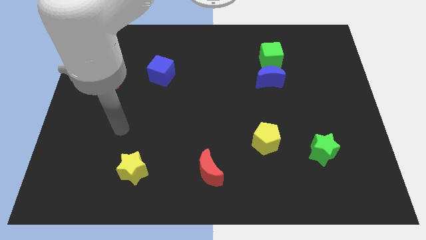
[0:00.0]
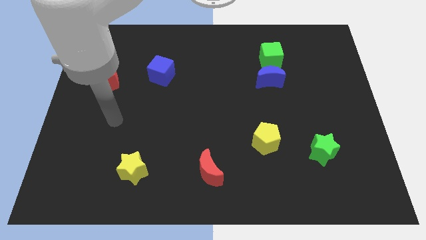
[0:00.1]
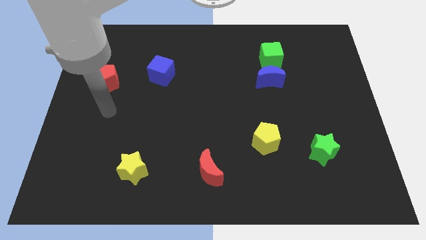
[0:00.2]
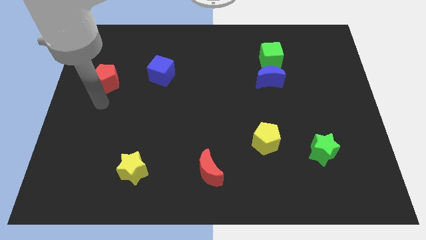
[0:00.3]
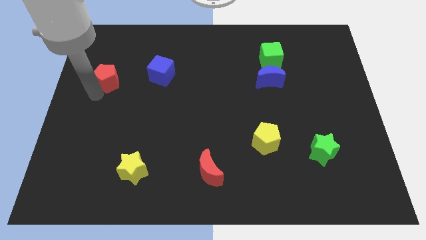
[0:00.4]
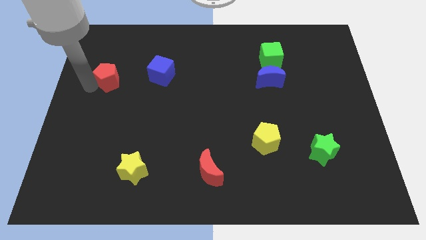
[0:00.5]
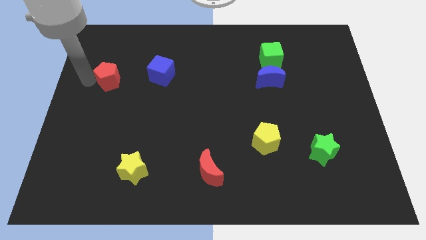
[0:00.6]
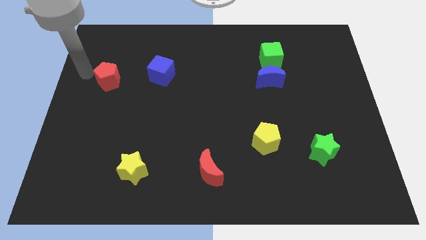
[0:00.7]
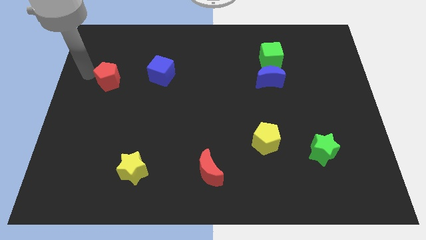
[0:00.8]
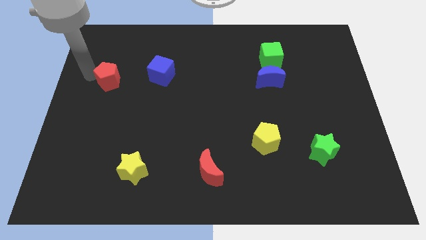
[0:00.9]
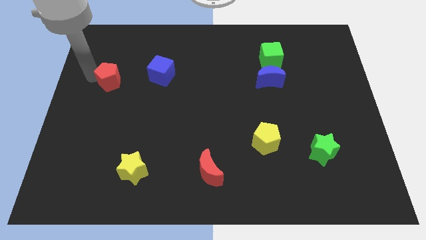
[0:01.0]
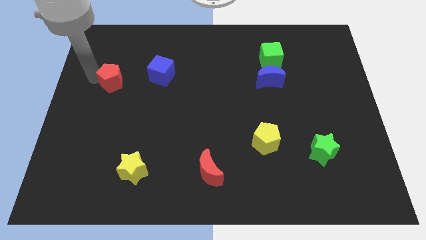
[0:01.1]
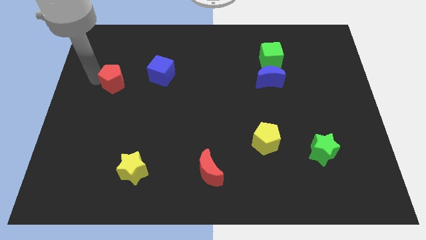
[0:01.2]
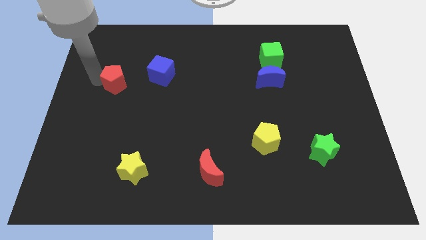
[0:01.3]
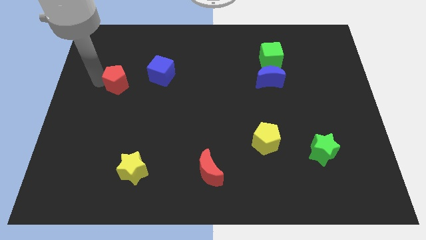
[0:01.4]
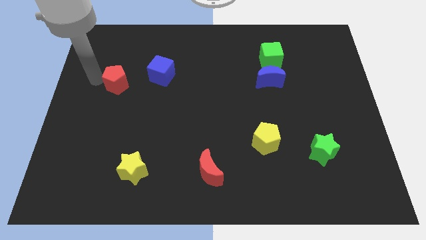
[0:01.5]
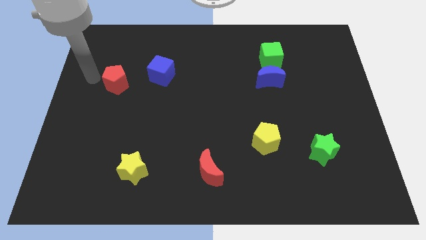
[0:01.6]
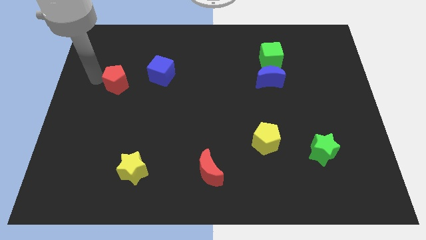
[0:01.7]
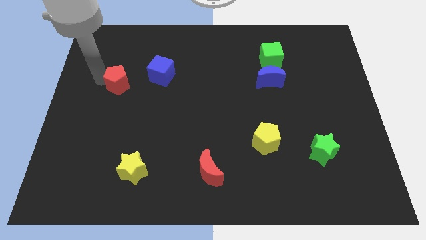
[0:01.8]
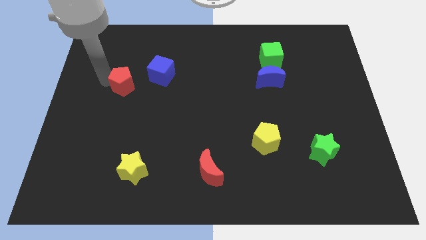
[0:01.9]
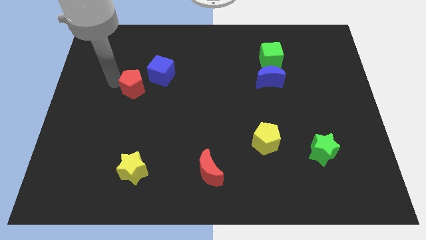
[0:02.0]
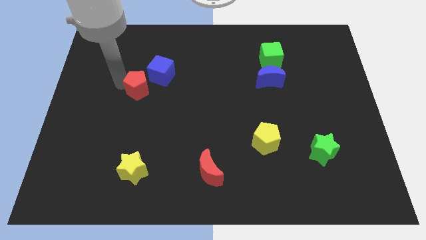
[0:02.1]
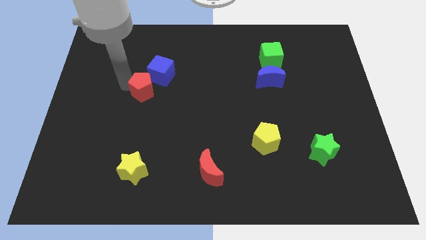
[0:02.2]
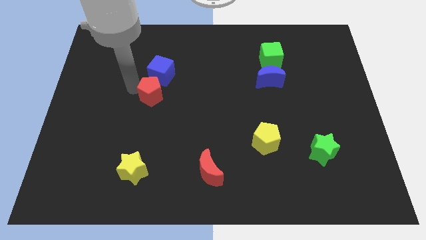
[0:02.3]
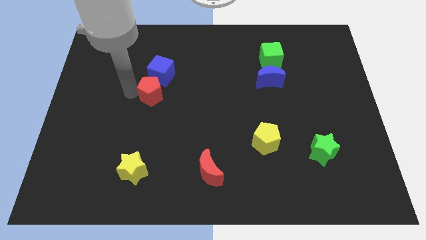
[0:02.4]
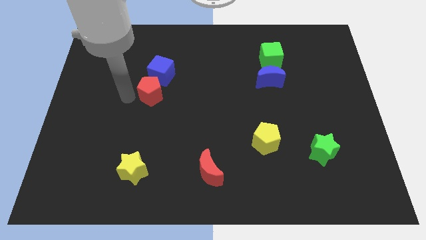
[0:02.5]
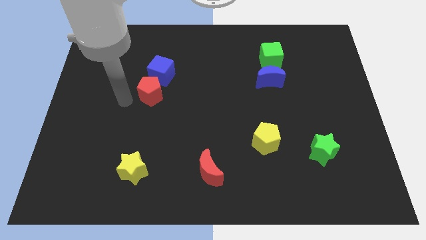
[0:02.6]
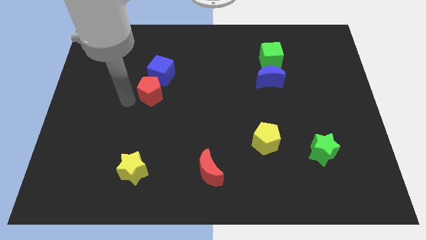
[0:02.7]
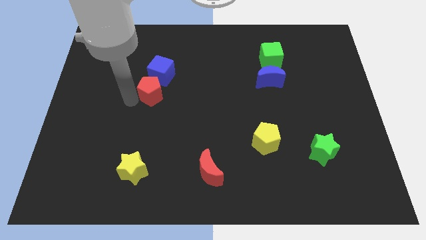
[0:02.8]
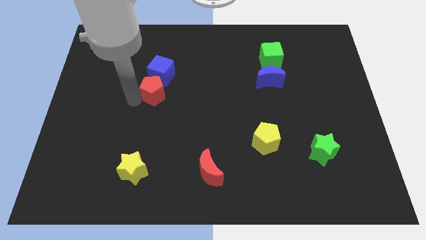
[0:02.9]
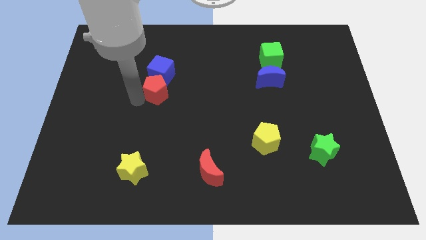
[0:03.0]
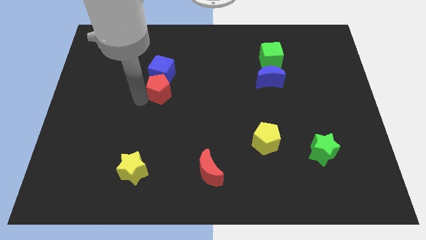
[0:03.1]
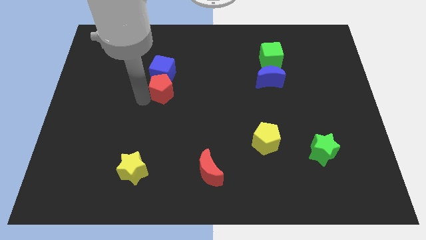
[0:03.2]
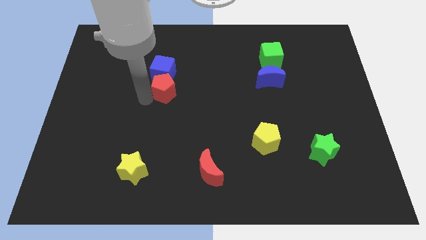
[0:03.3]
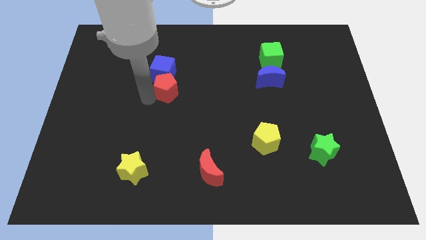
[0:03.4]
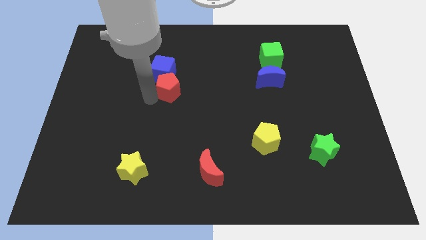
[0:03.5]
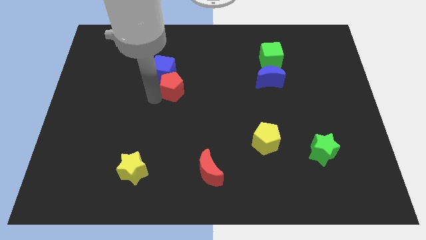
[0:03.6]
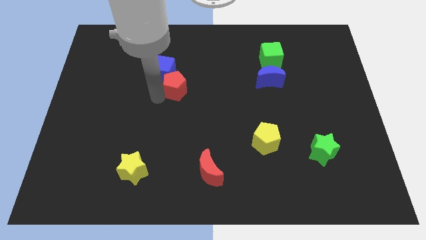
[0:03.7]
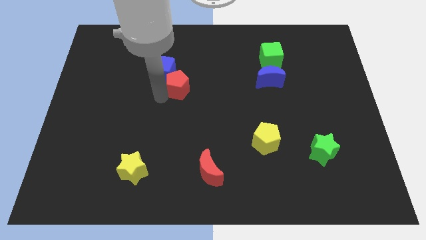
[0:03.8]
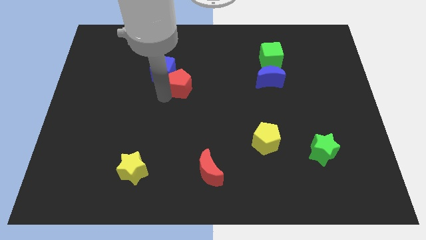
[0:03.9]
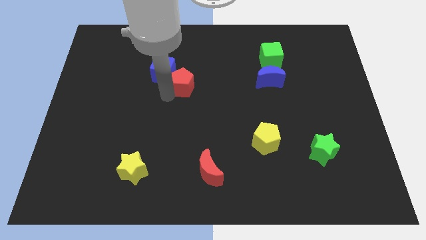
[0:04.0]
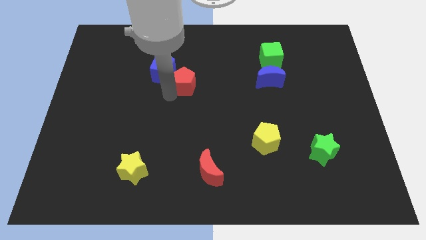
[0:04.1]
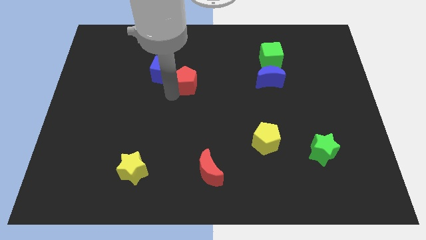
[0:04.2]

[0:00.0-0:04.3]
move the red pentagon to the right

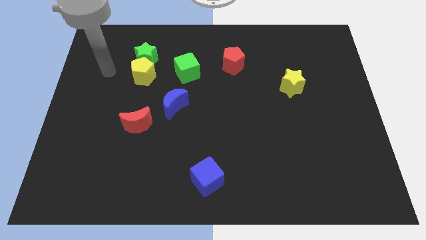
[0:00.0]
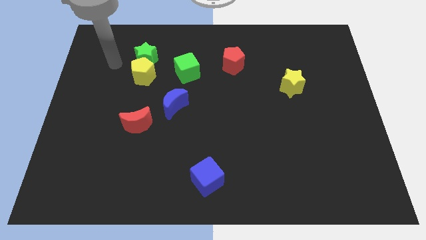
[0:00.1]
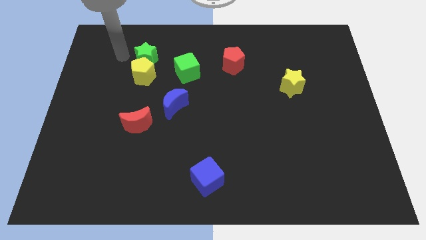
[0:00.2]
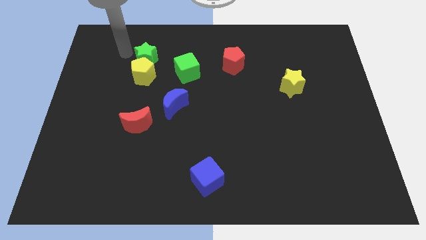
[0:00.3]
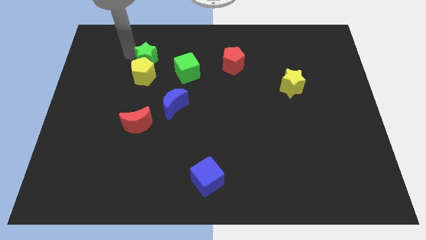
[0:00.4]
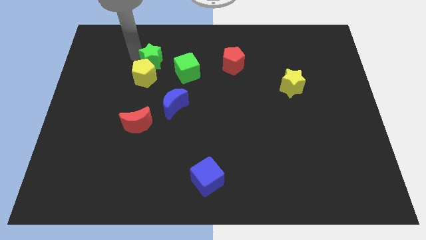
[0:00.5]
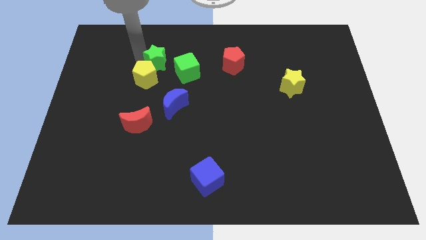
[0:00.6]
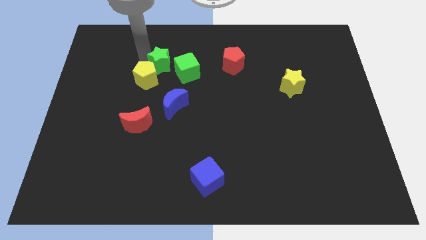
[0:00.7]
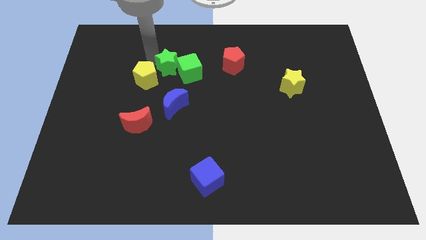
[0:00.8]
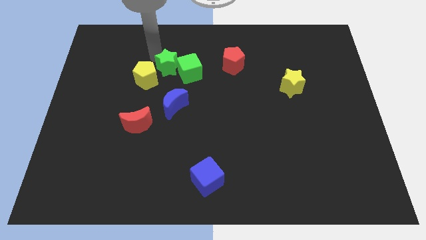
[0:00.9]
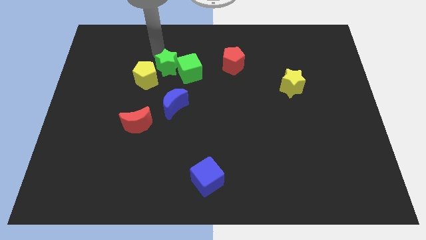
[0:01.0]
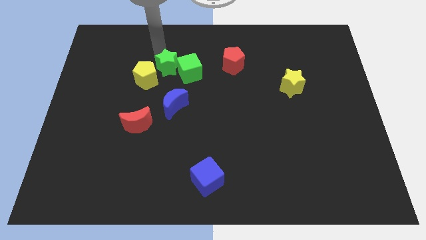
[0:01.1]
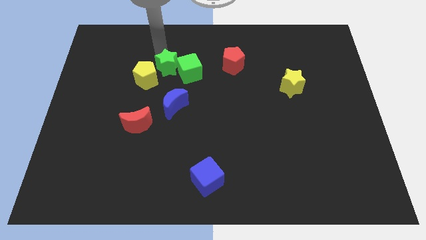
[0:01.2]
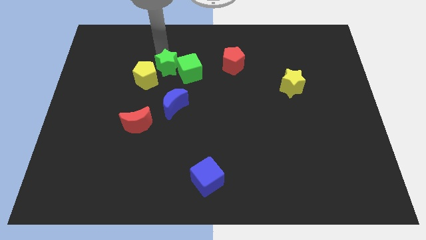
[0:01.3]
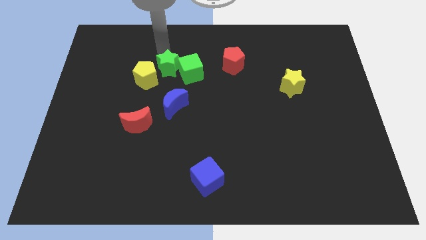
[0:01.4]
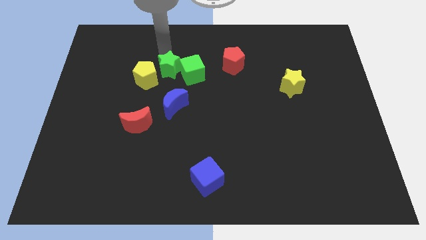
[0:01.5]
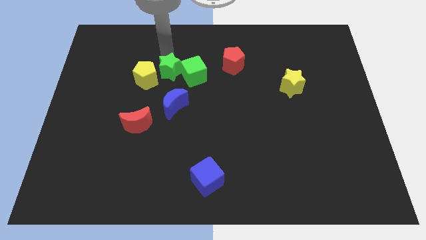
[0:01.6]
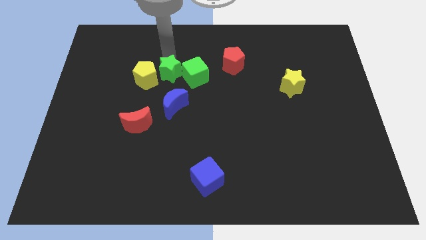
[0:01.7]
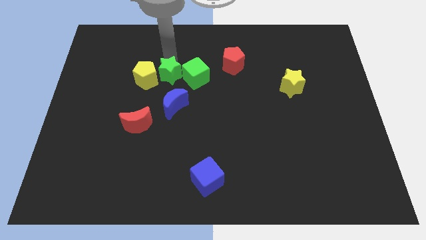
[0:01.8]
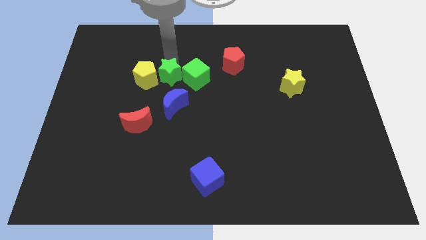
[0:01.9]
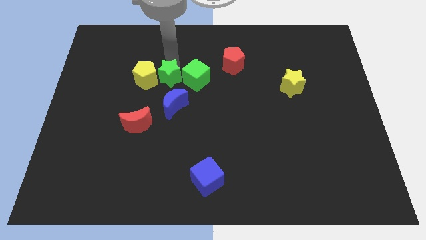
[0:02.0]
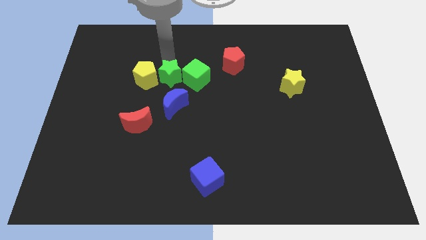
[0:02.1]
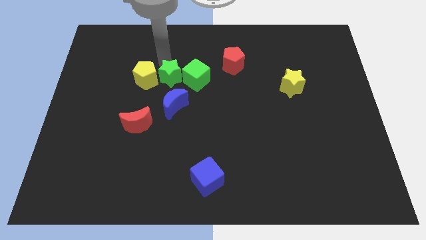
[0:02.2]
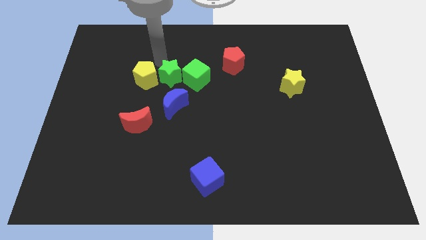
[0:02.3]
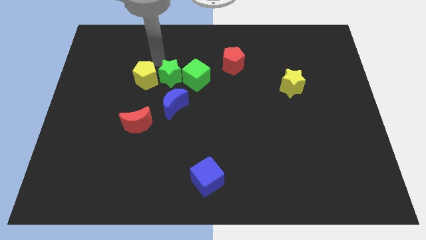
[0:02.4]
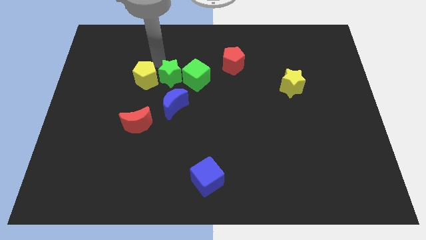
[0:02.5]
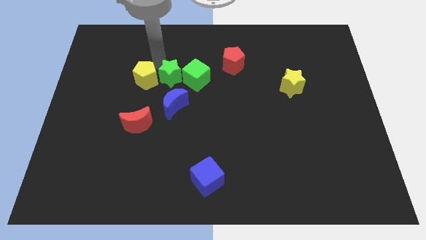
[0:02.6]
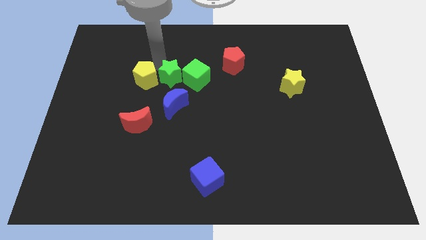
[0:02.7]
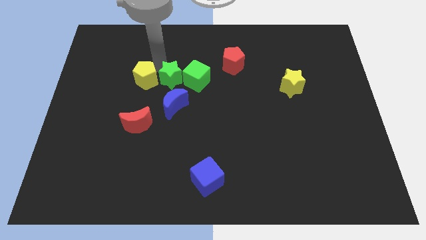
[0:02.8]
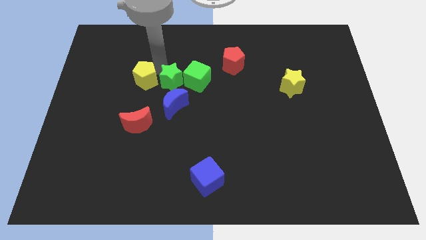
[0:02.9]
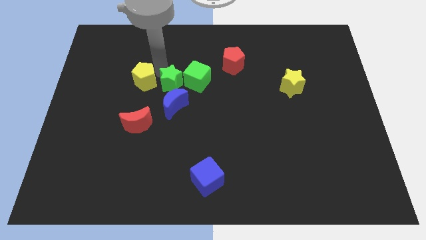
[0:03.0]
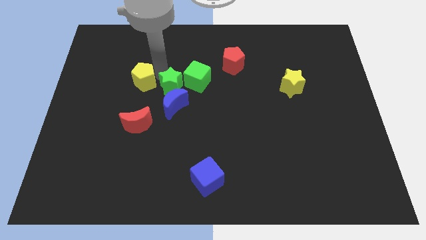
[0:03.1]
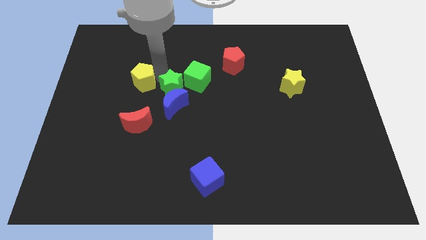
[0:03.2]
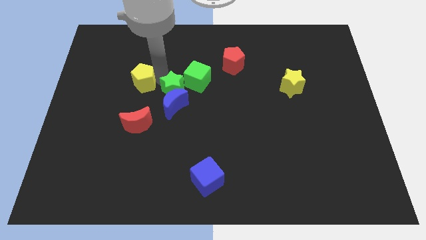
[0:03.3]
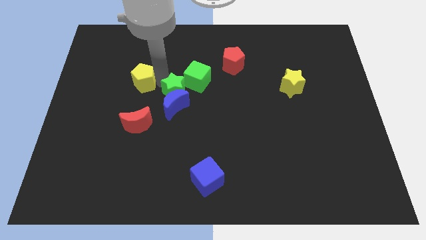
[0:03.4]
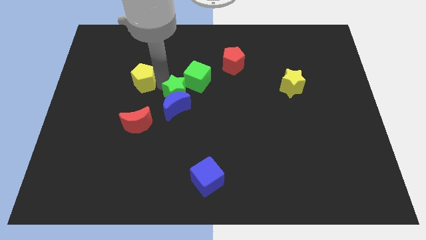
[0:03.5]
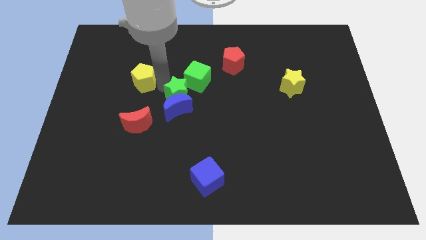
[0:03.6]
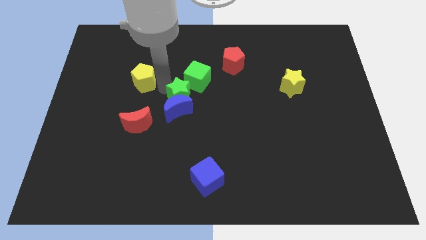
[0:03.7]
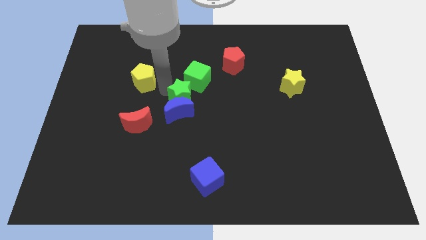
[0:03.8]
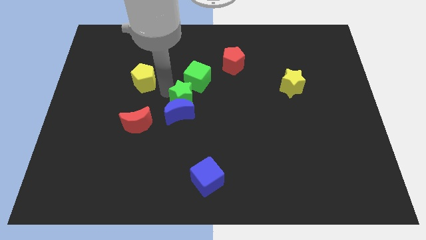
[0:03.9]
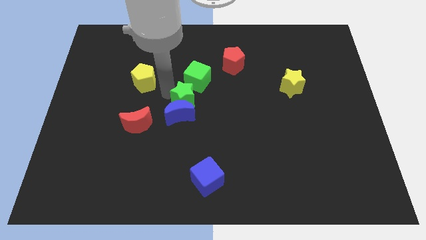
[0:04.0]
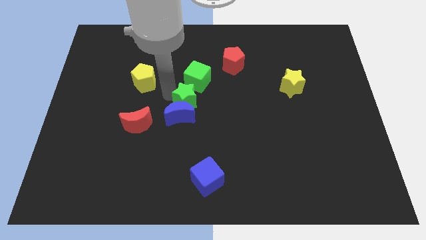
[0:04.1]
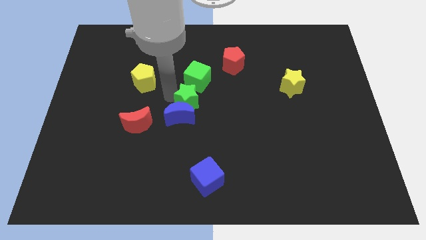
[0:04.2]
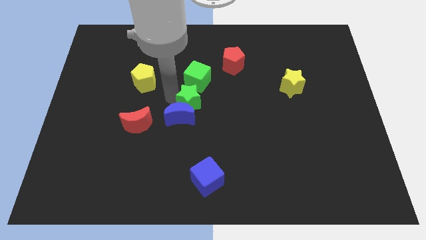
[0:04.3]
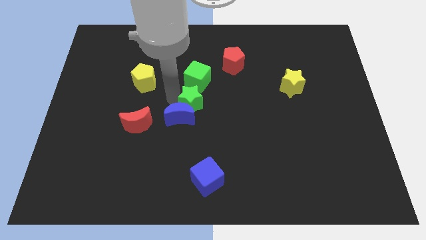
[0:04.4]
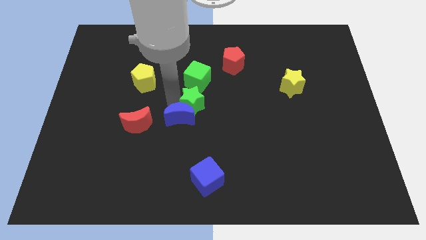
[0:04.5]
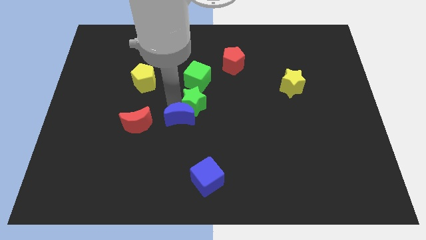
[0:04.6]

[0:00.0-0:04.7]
move the green star down and right diagonally
